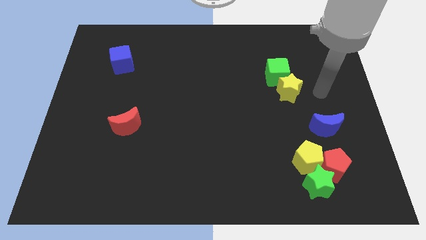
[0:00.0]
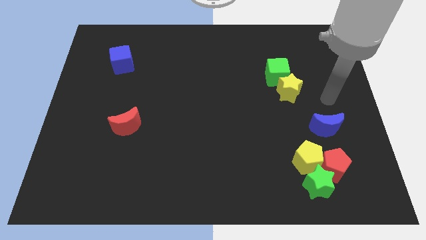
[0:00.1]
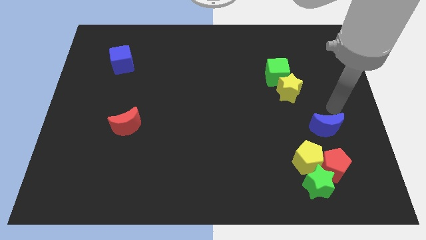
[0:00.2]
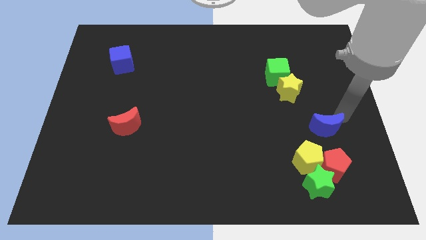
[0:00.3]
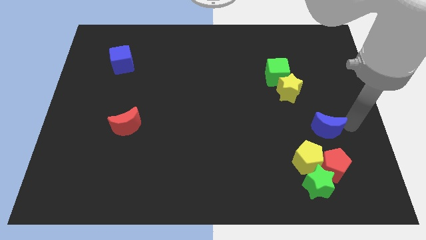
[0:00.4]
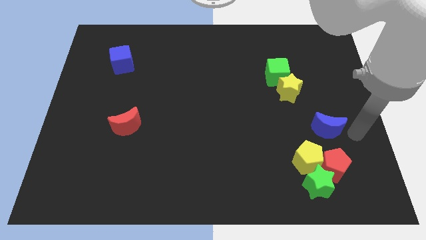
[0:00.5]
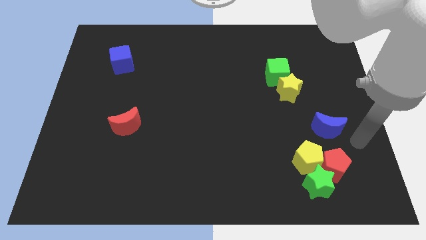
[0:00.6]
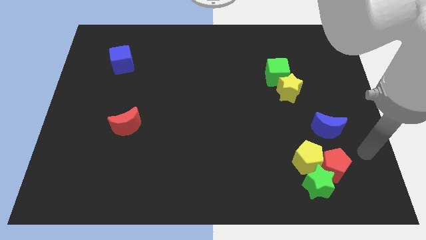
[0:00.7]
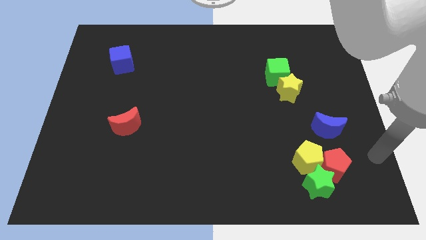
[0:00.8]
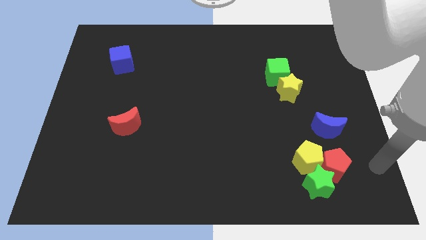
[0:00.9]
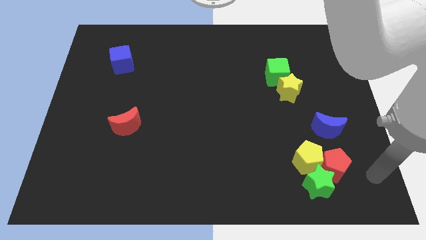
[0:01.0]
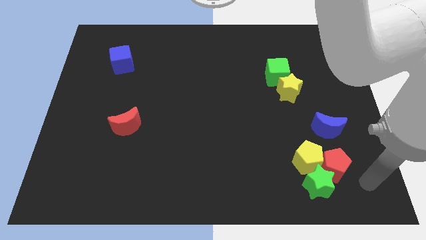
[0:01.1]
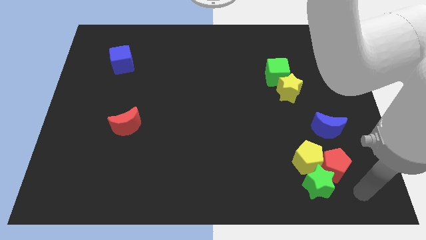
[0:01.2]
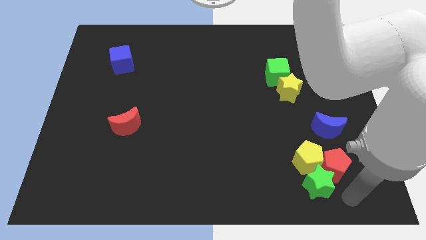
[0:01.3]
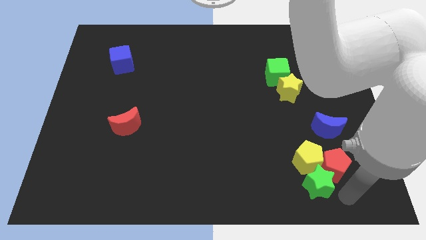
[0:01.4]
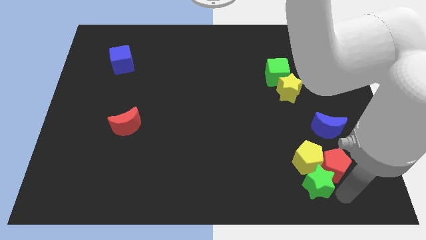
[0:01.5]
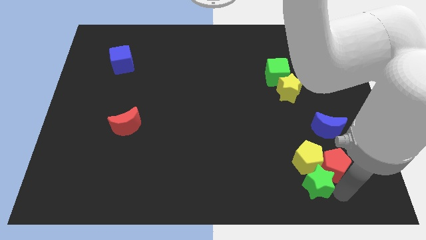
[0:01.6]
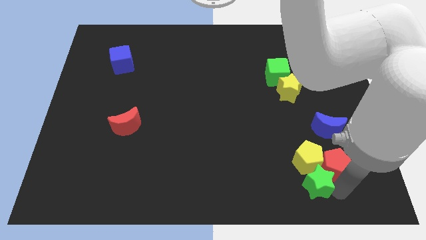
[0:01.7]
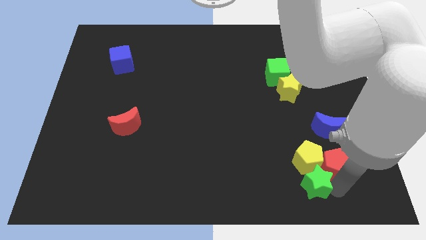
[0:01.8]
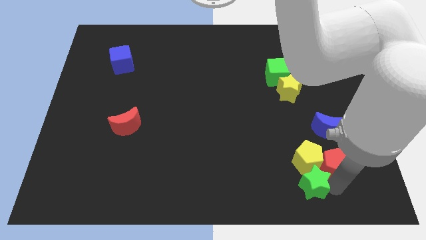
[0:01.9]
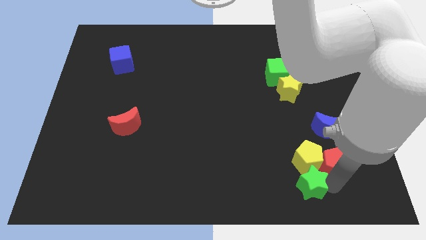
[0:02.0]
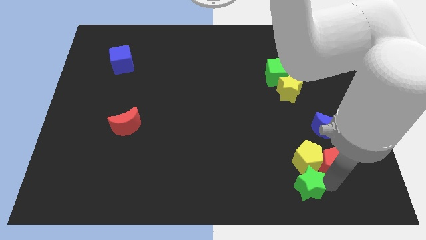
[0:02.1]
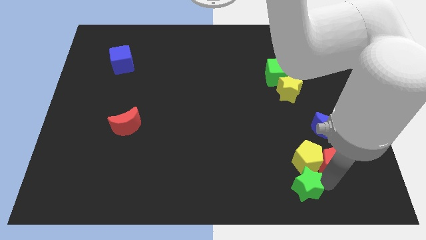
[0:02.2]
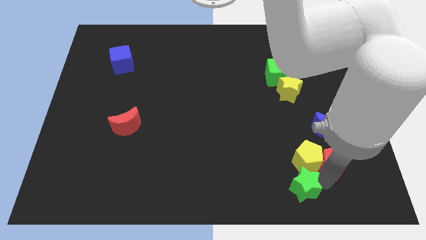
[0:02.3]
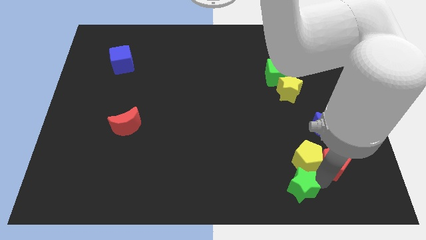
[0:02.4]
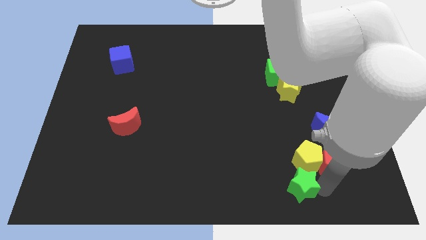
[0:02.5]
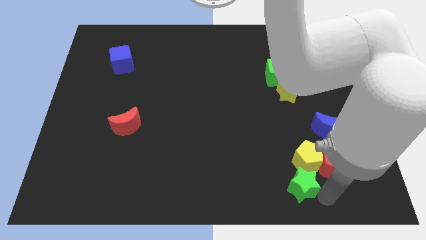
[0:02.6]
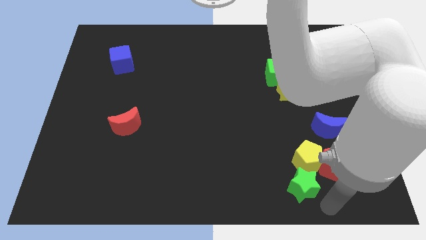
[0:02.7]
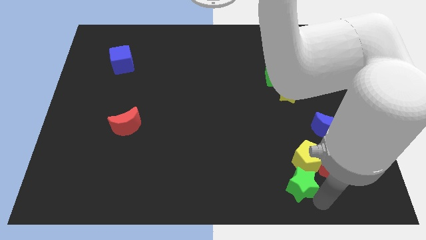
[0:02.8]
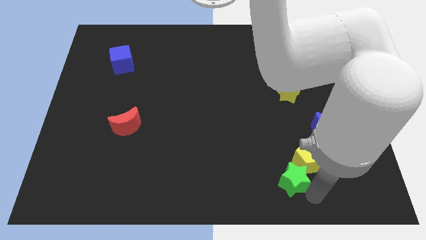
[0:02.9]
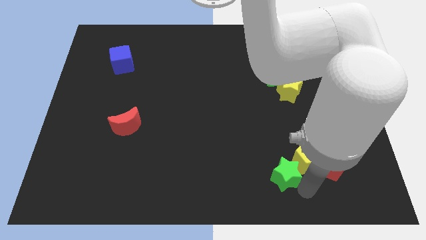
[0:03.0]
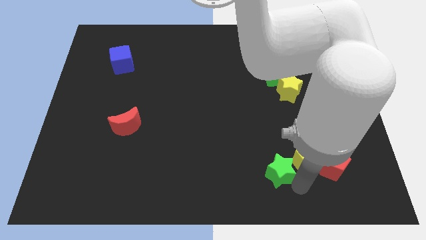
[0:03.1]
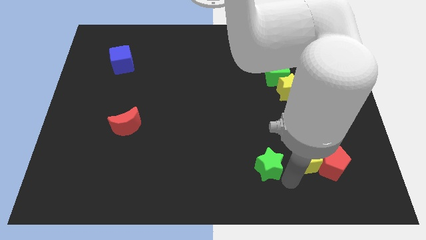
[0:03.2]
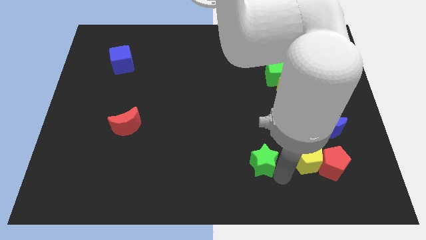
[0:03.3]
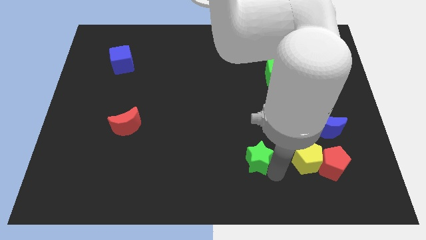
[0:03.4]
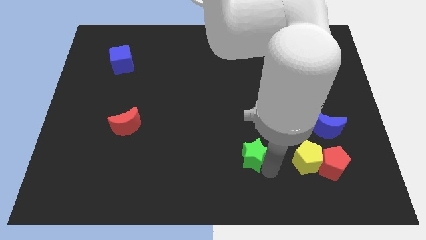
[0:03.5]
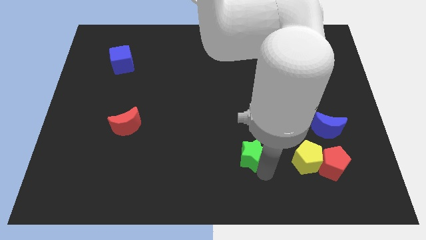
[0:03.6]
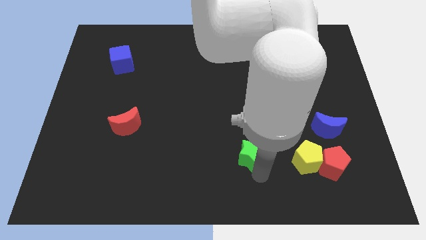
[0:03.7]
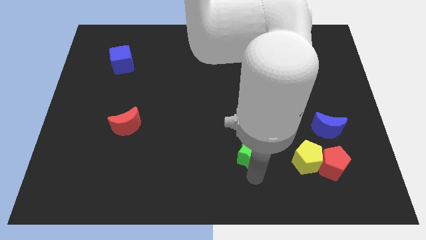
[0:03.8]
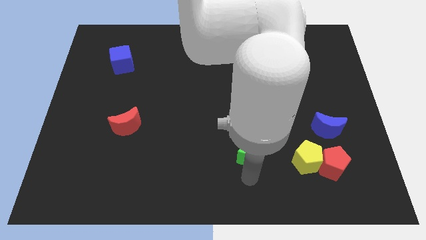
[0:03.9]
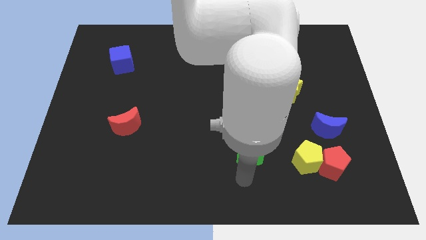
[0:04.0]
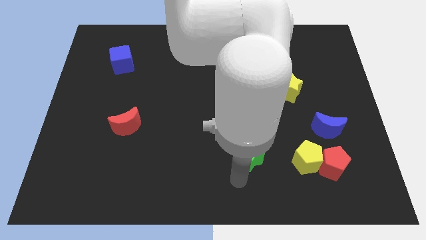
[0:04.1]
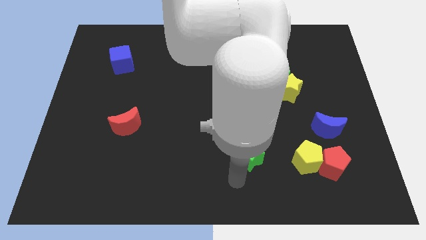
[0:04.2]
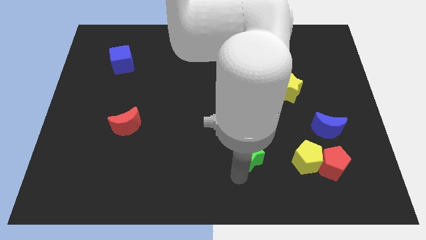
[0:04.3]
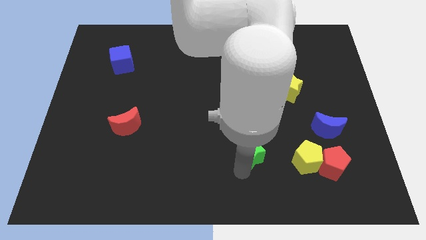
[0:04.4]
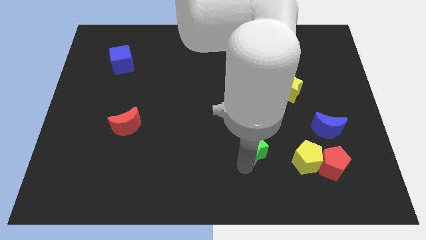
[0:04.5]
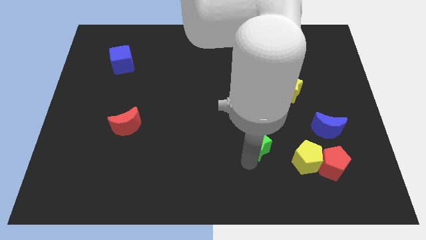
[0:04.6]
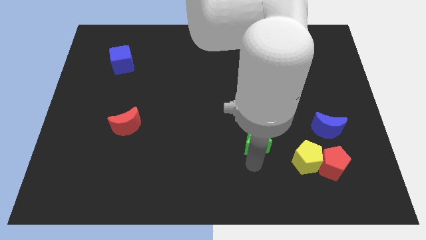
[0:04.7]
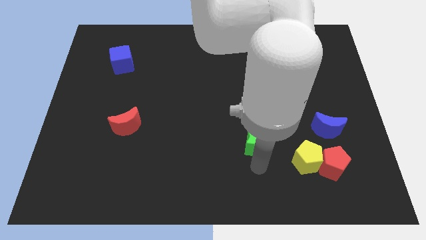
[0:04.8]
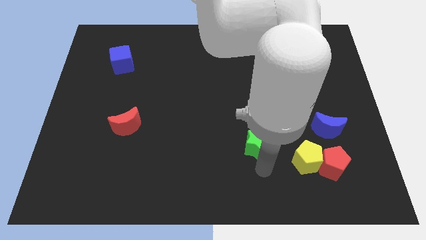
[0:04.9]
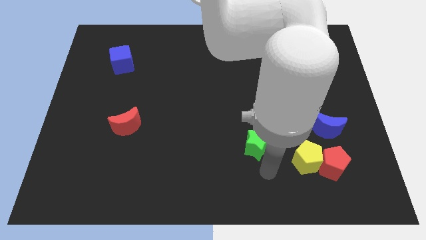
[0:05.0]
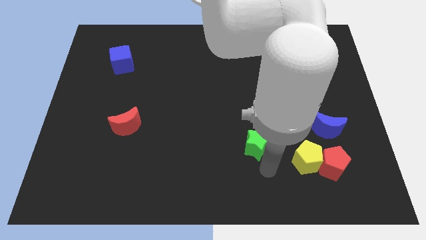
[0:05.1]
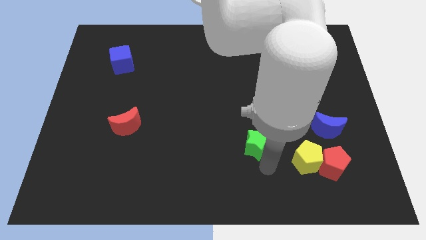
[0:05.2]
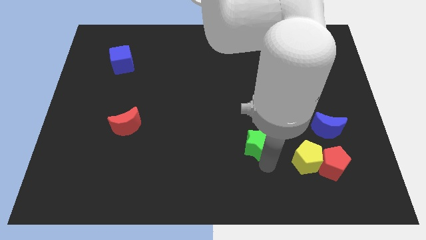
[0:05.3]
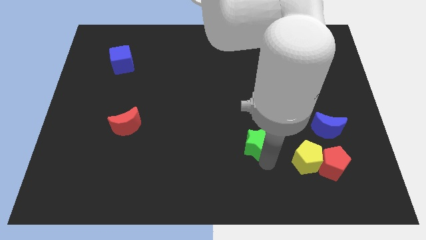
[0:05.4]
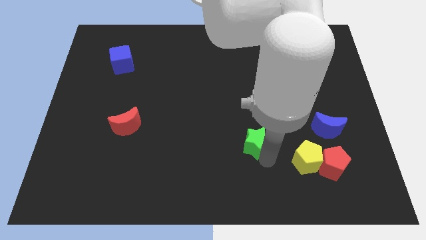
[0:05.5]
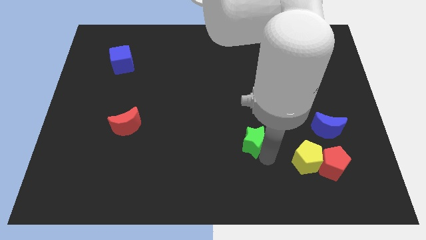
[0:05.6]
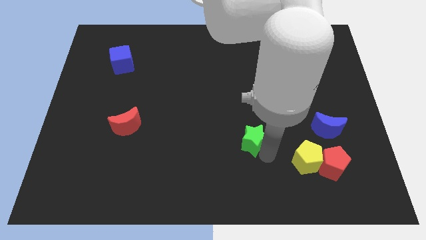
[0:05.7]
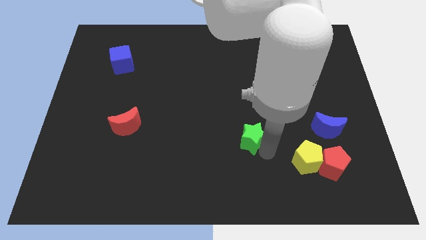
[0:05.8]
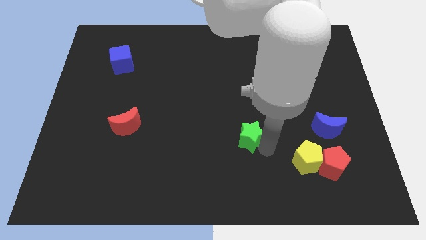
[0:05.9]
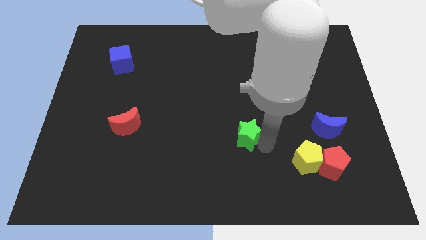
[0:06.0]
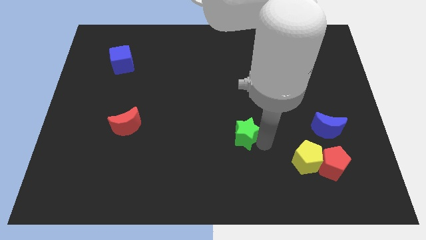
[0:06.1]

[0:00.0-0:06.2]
move the green star to the middle
